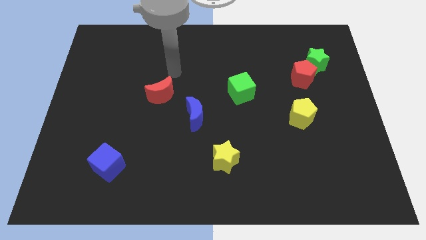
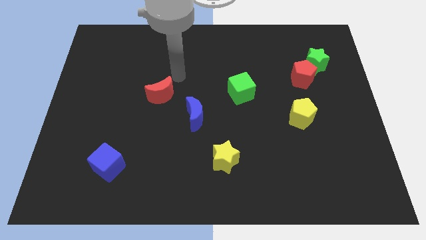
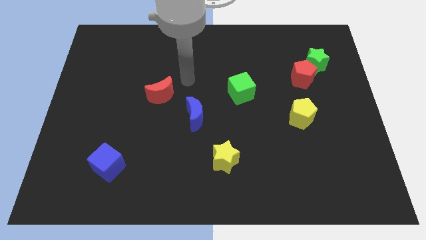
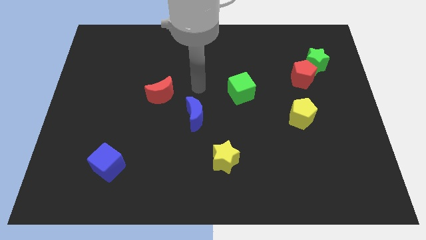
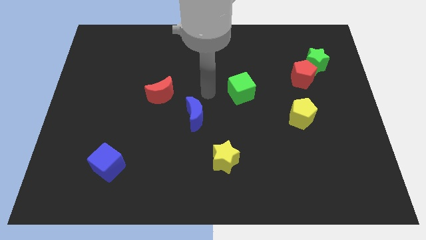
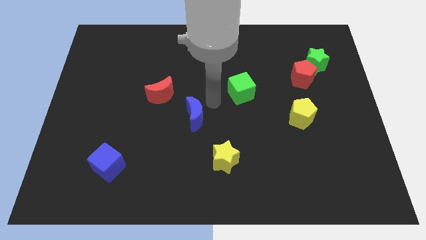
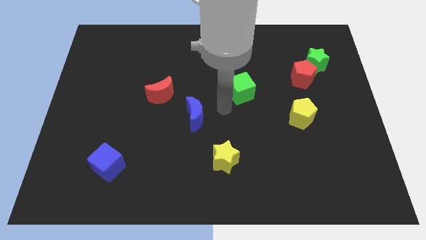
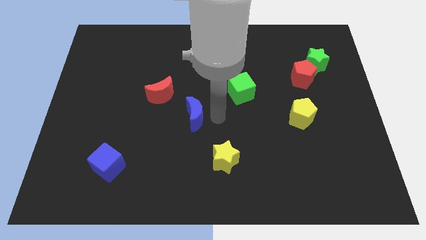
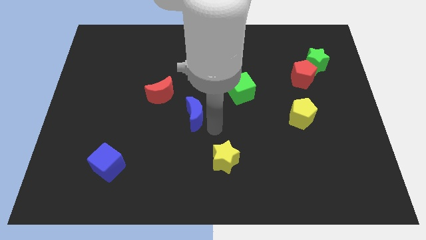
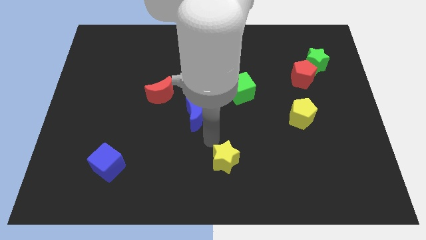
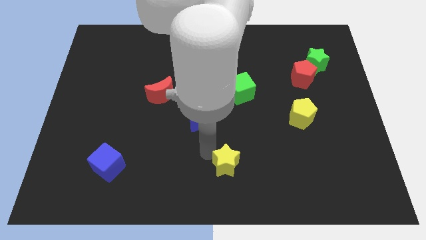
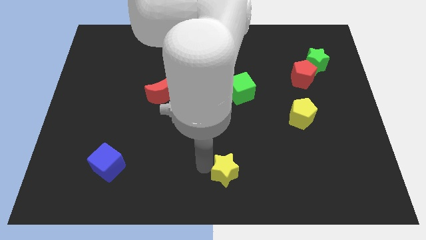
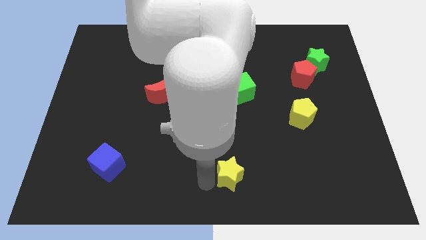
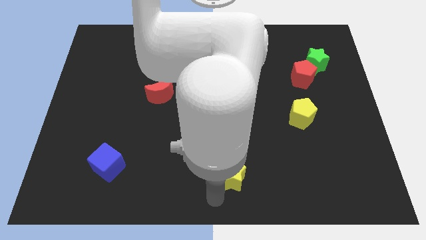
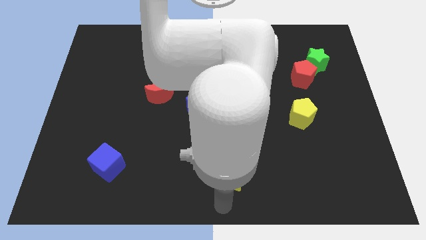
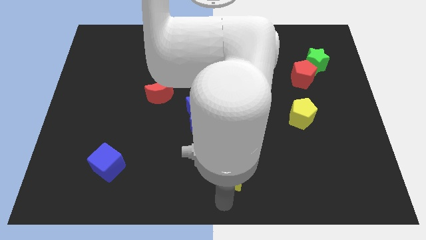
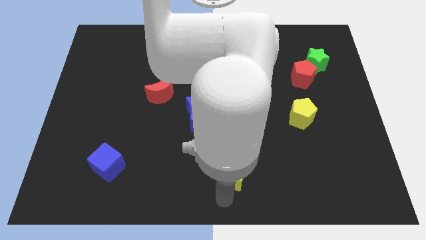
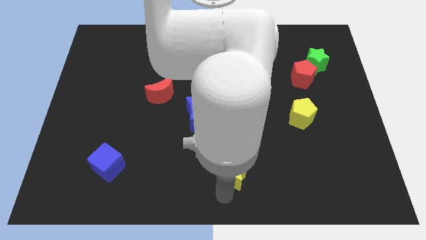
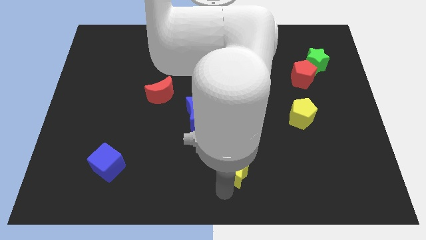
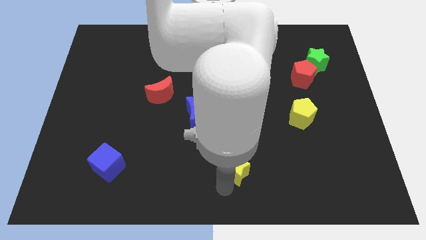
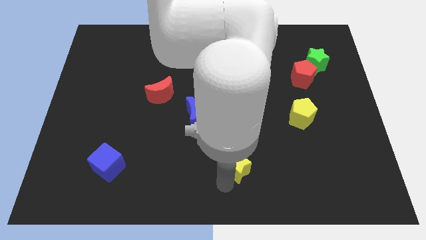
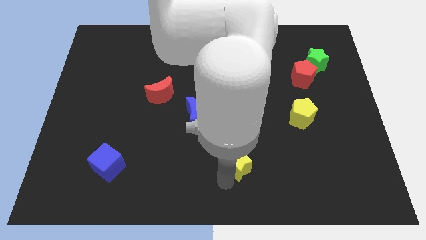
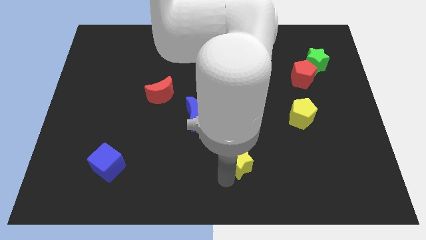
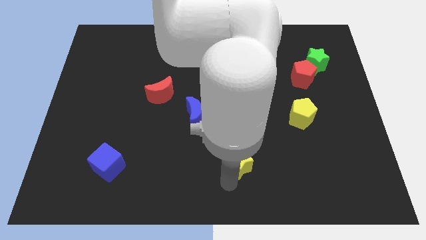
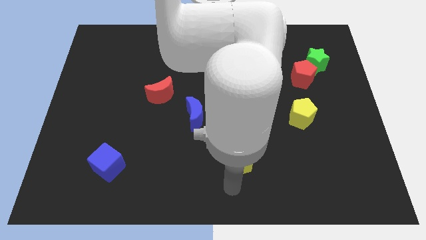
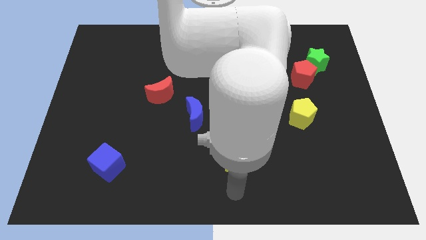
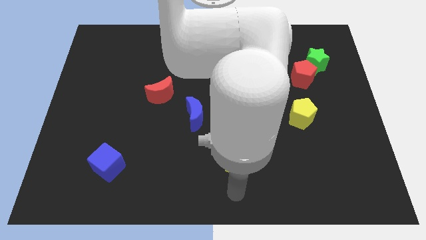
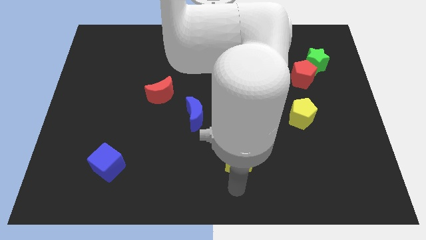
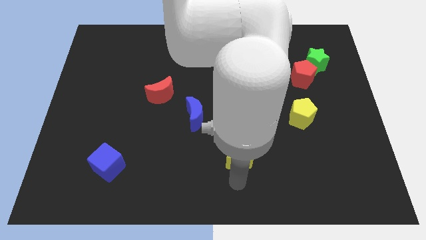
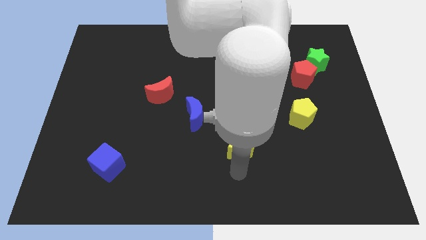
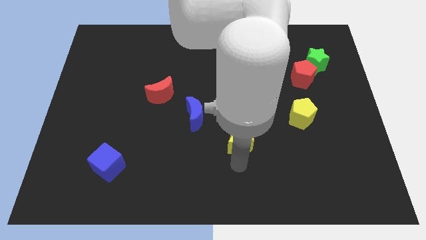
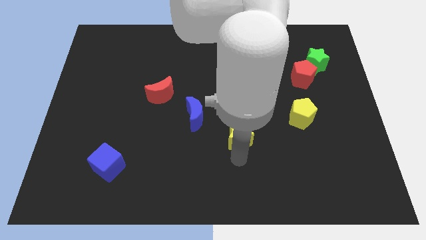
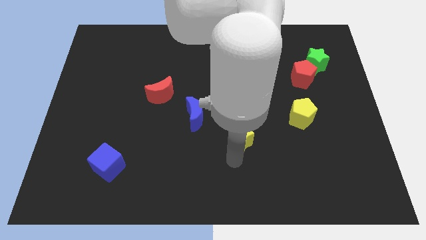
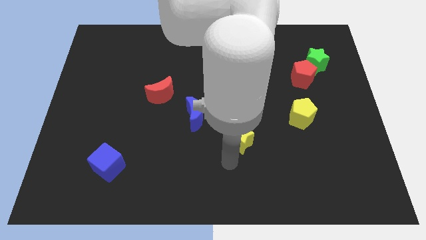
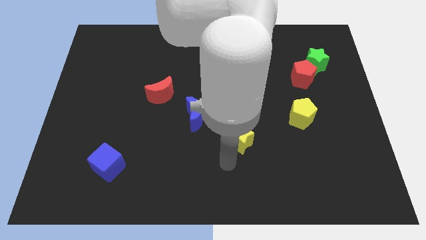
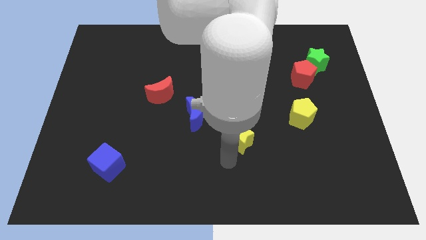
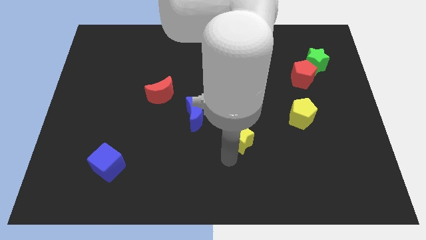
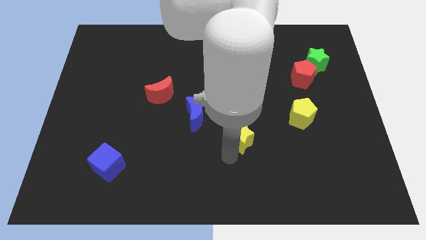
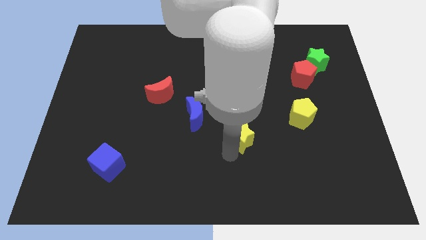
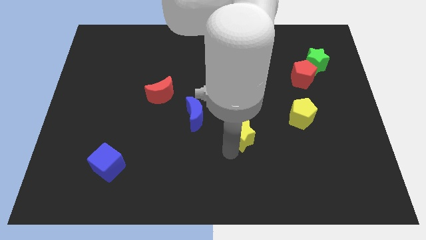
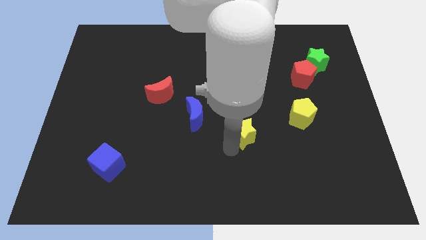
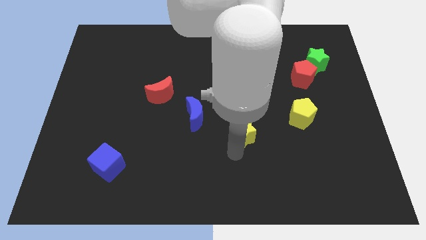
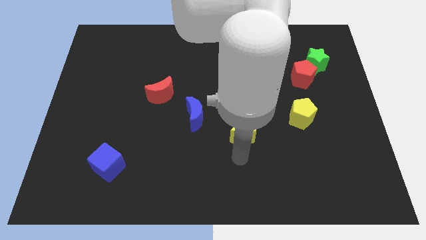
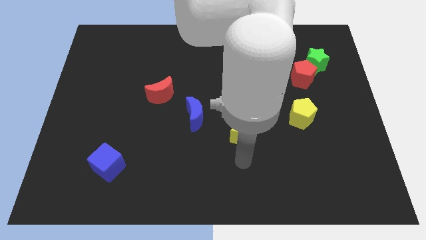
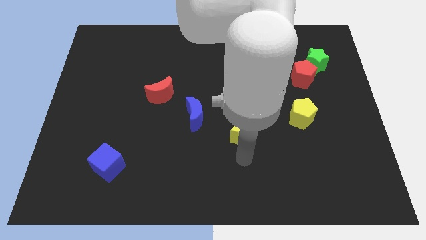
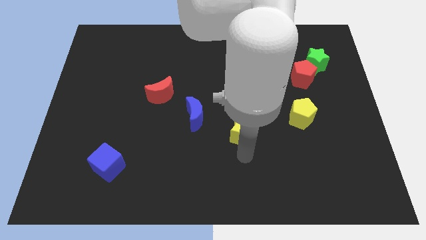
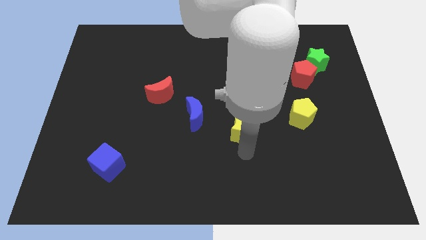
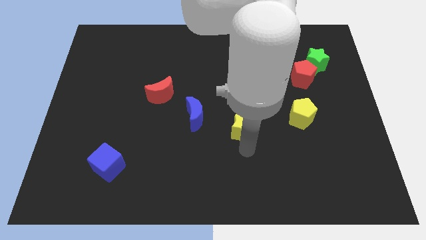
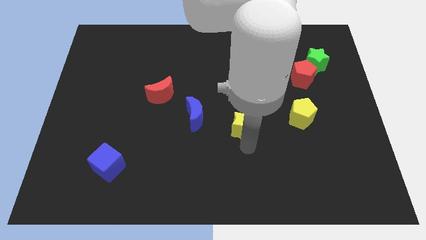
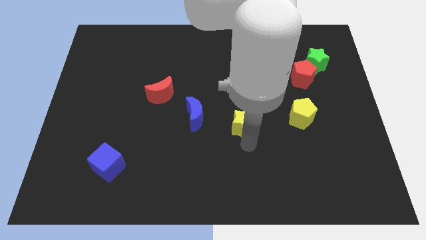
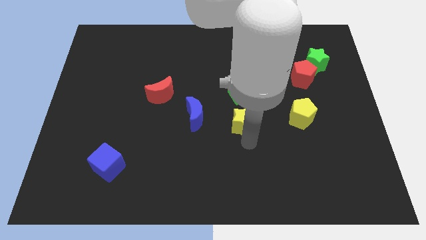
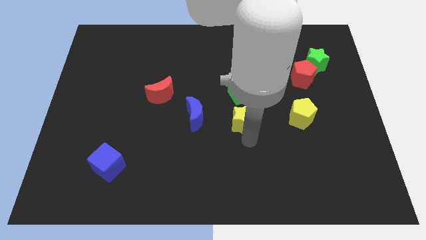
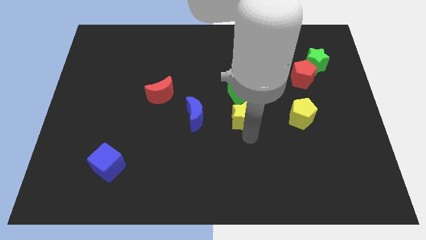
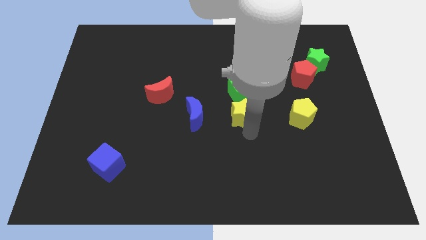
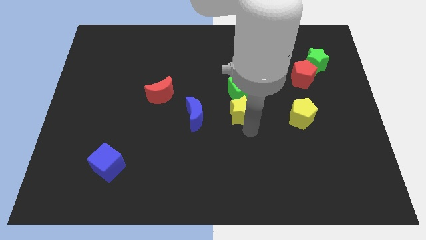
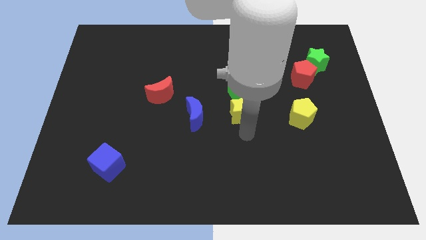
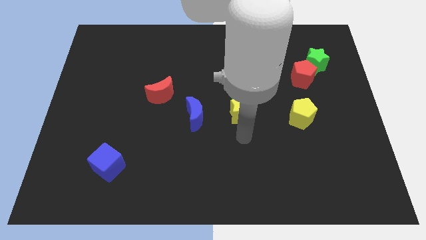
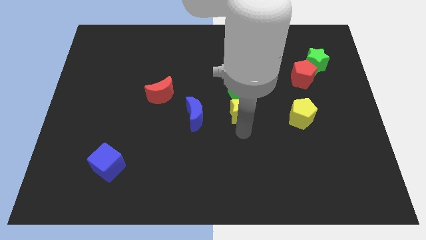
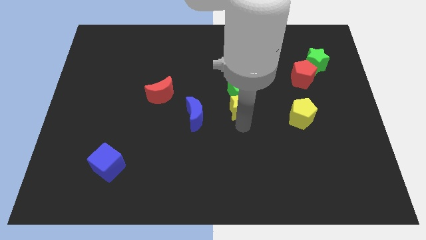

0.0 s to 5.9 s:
move the yellow star towards the green cube

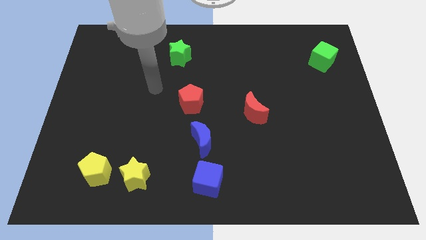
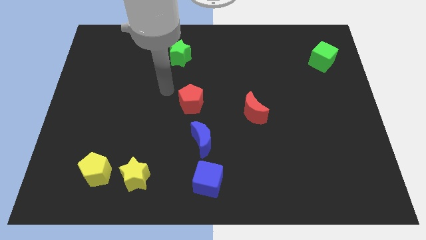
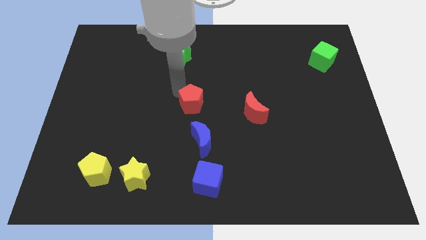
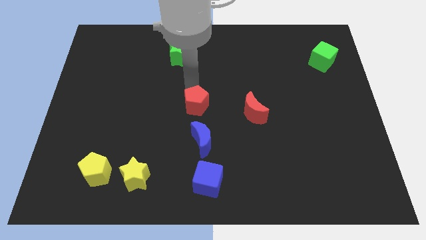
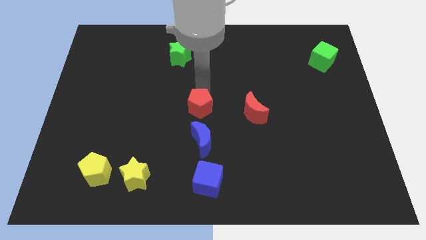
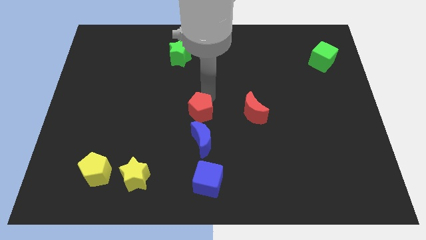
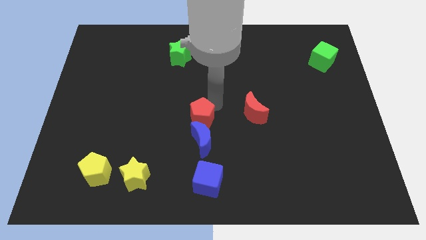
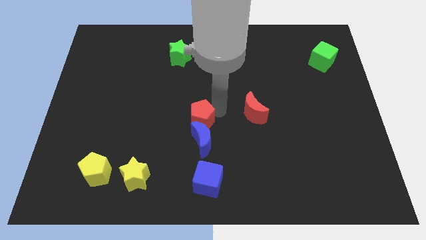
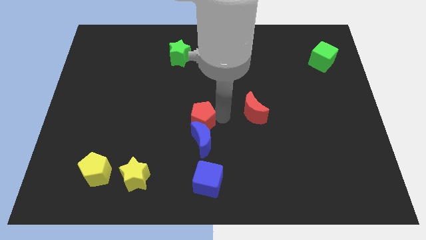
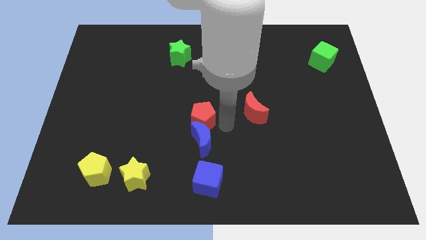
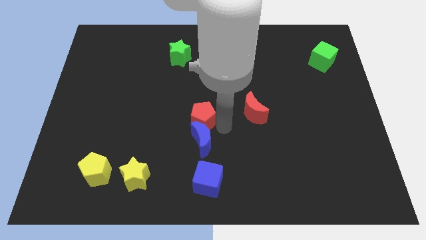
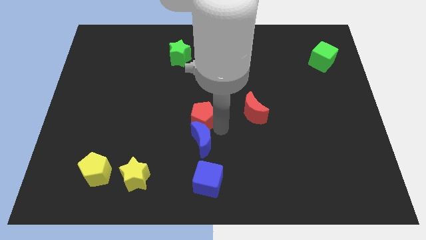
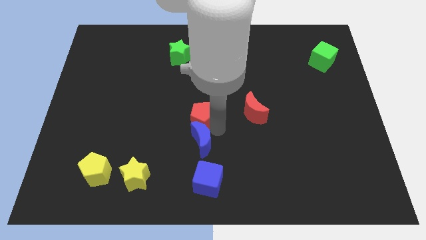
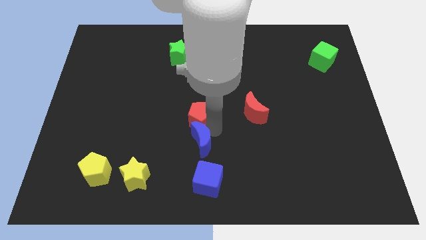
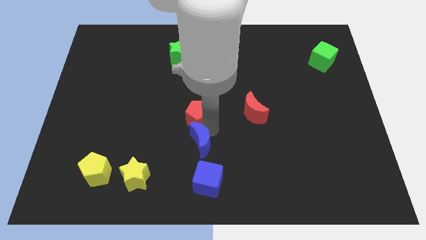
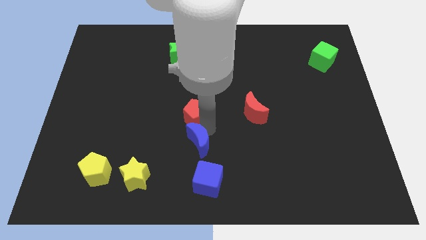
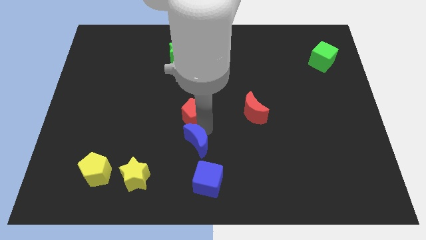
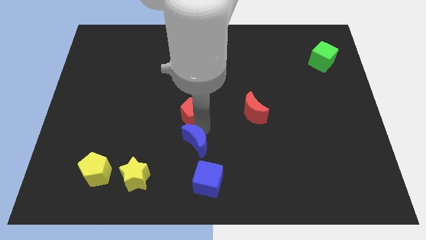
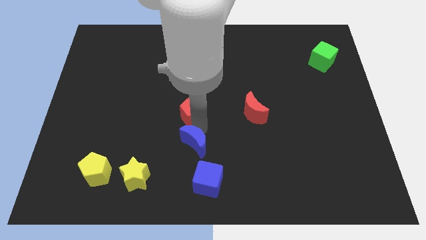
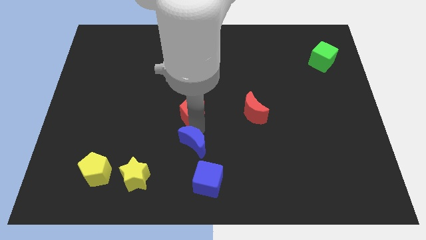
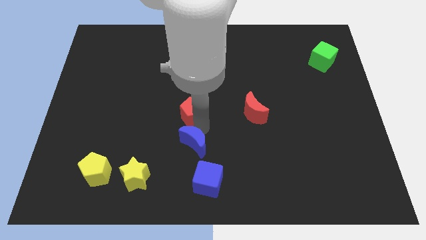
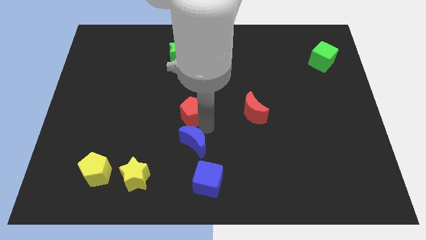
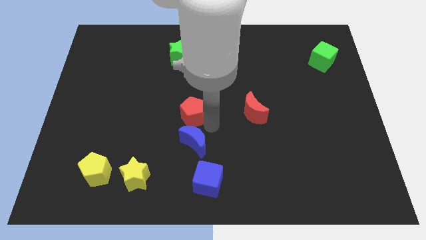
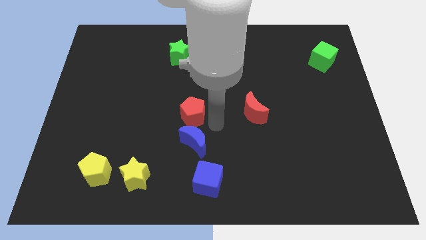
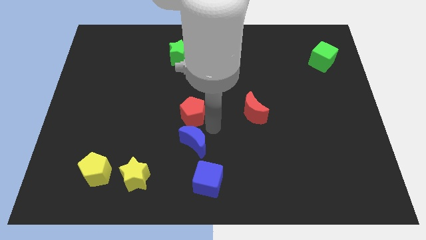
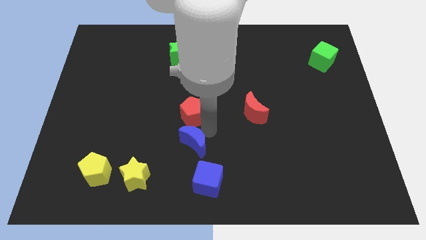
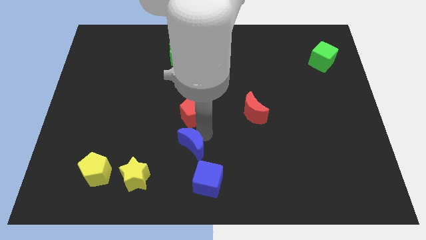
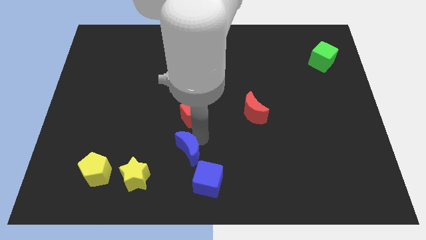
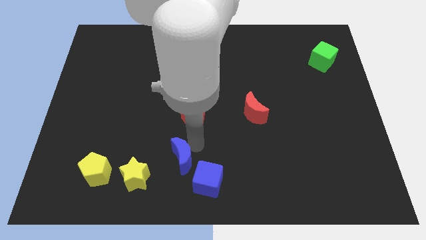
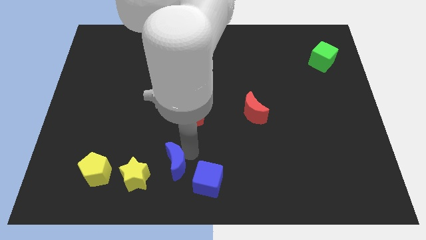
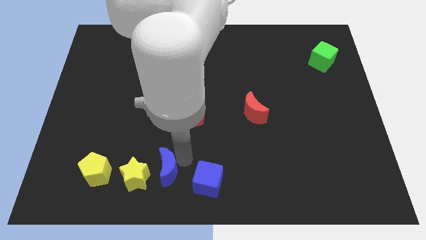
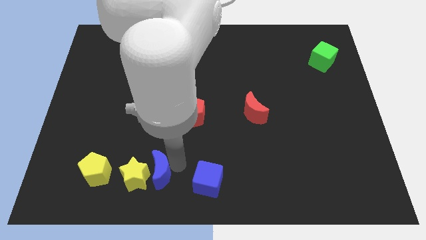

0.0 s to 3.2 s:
slide the blue moon to the yellow star
